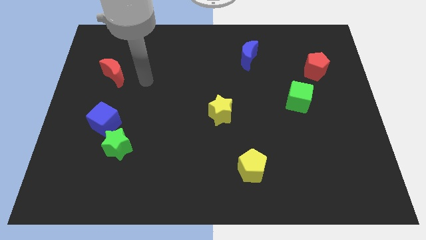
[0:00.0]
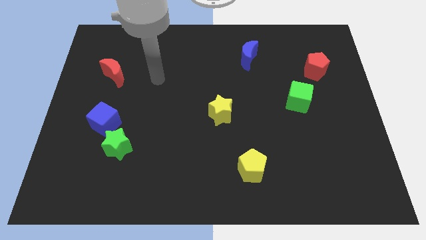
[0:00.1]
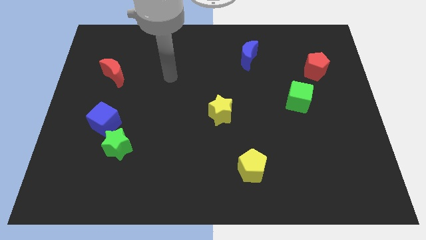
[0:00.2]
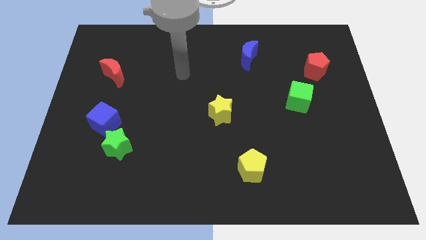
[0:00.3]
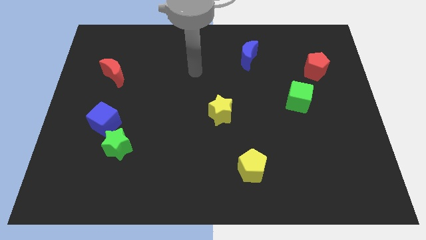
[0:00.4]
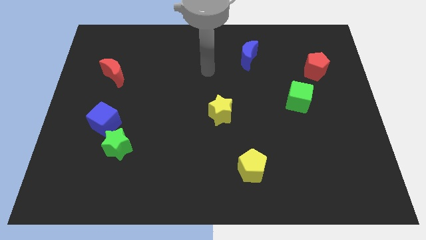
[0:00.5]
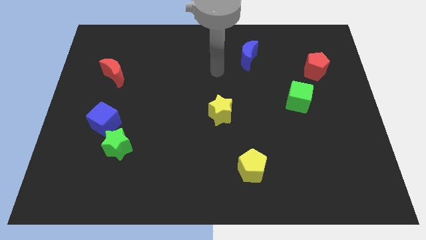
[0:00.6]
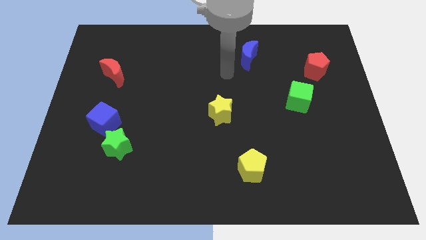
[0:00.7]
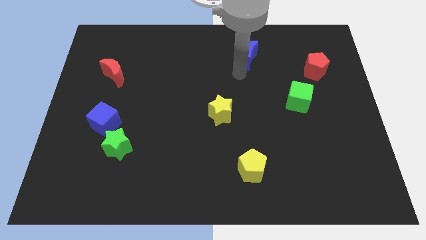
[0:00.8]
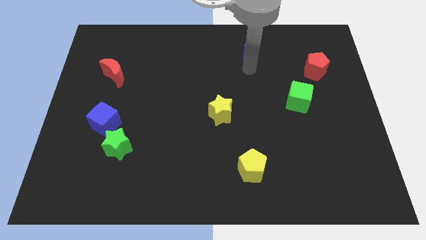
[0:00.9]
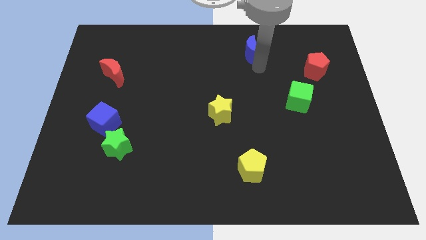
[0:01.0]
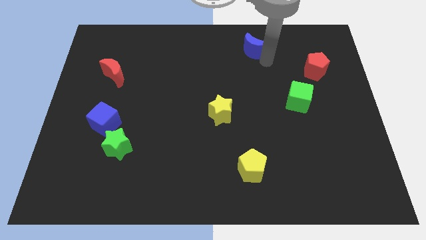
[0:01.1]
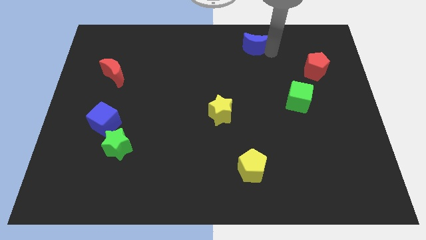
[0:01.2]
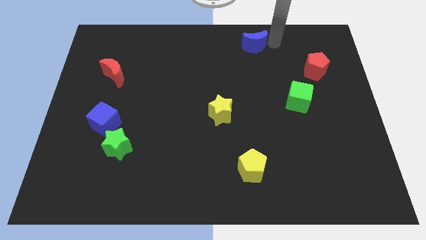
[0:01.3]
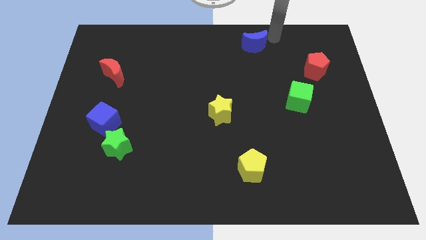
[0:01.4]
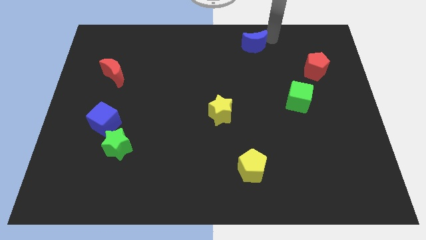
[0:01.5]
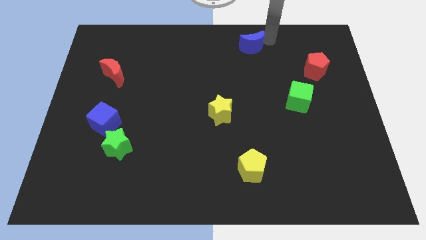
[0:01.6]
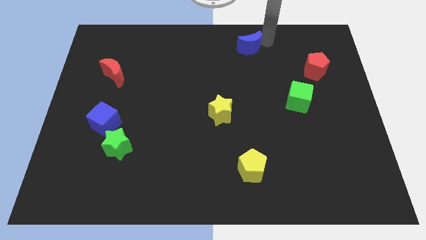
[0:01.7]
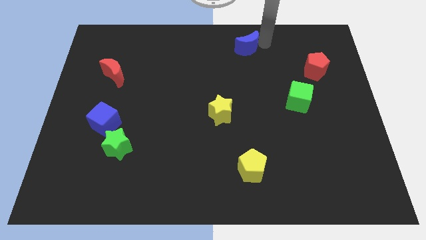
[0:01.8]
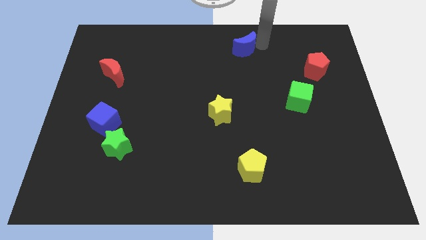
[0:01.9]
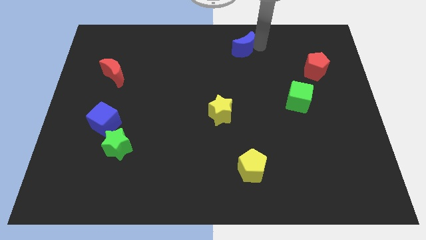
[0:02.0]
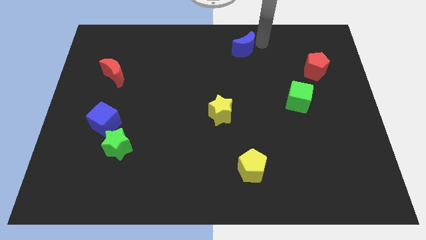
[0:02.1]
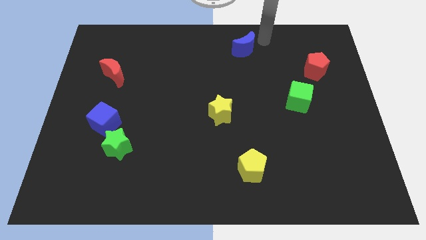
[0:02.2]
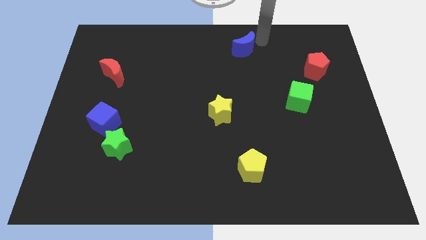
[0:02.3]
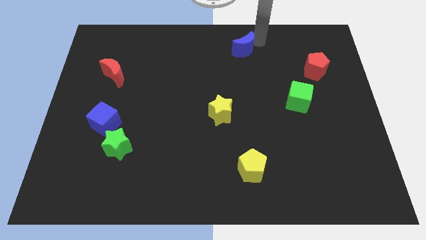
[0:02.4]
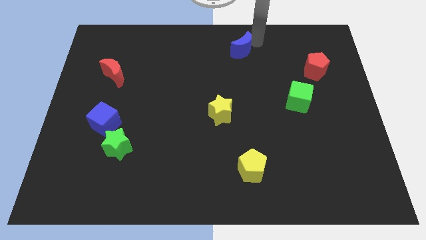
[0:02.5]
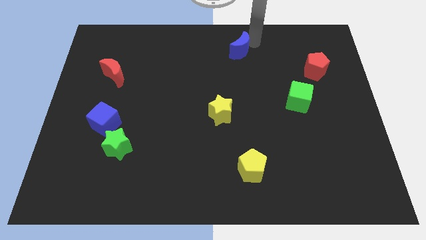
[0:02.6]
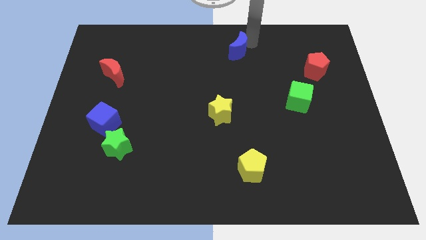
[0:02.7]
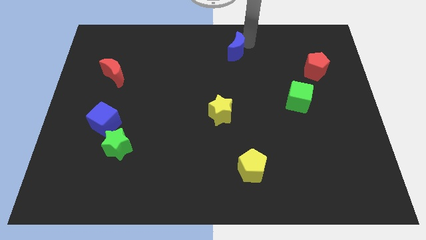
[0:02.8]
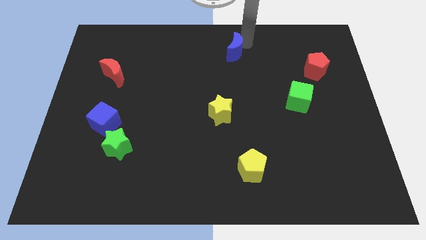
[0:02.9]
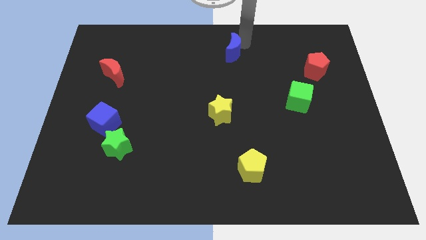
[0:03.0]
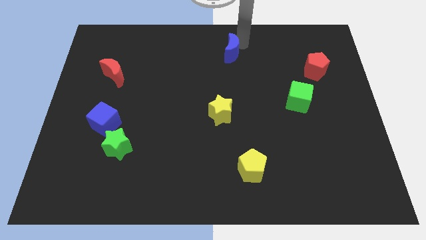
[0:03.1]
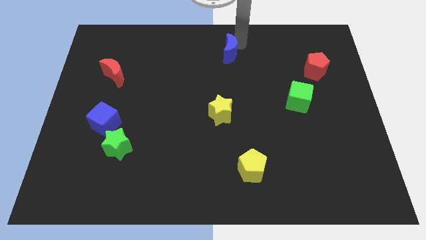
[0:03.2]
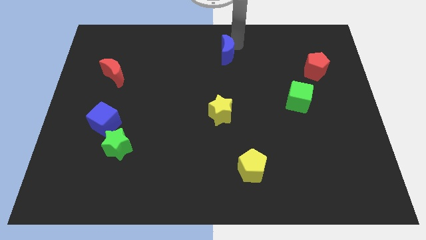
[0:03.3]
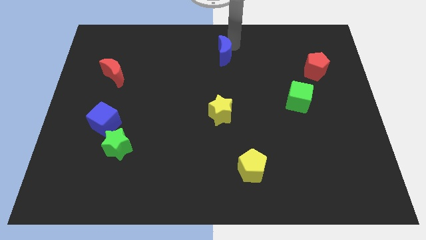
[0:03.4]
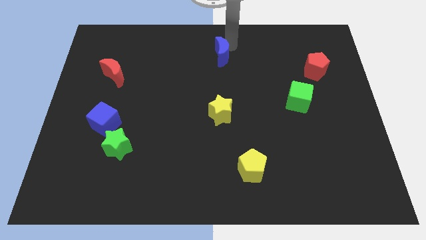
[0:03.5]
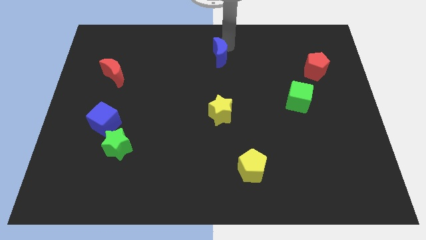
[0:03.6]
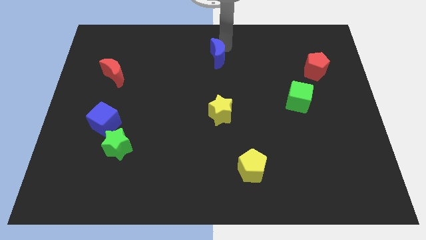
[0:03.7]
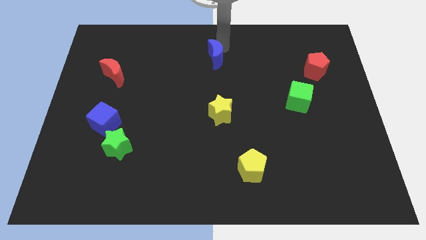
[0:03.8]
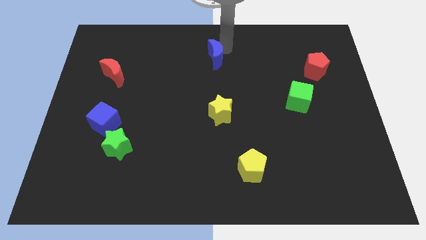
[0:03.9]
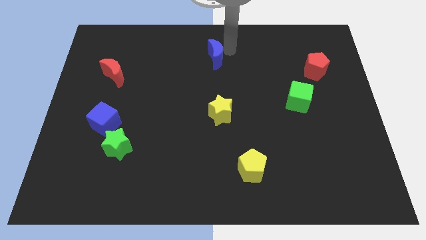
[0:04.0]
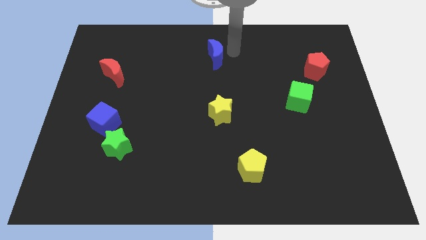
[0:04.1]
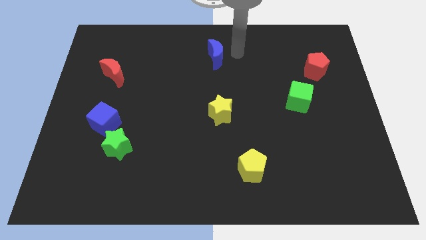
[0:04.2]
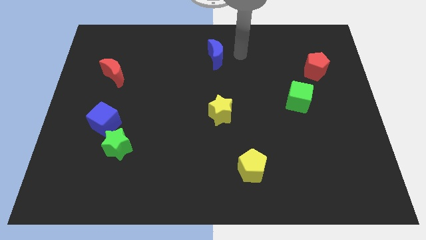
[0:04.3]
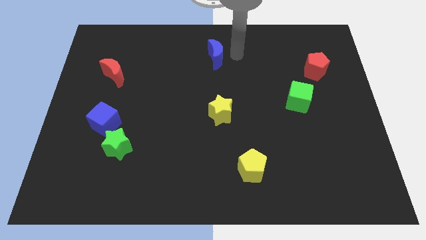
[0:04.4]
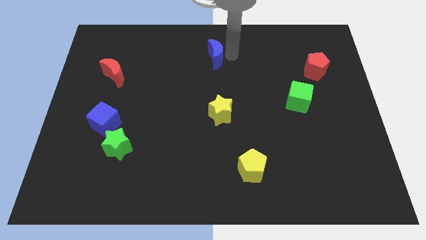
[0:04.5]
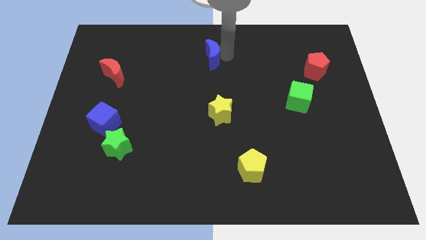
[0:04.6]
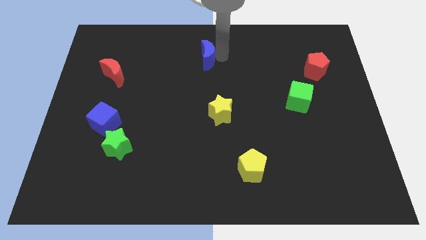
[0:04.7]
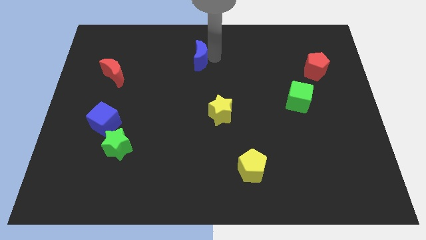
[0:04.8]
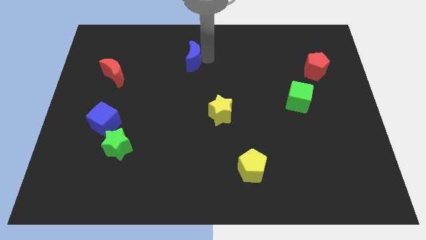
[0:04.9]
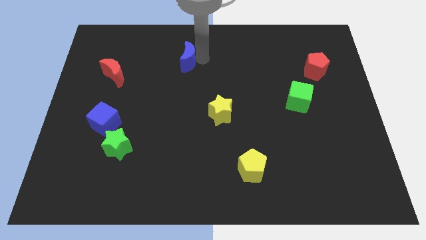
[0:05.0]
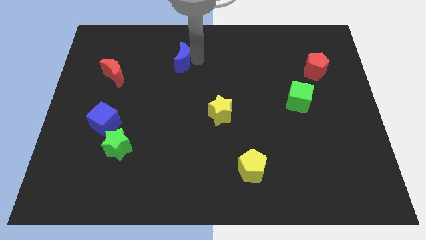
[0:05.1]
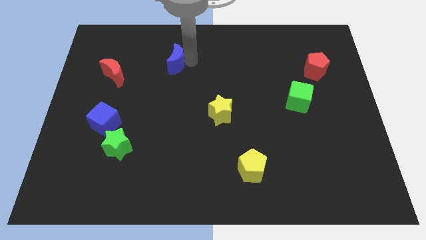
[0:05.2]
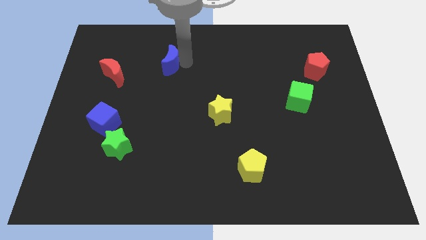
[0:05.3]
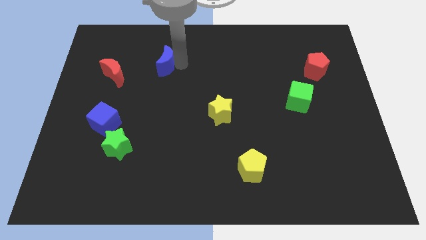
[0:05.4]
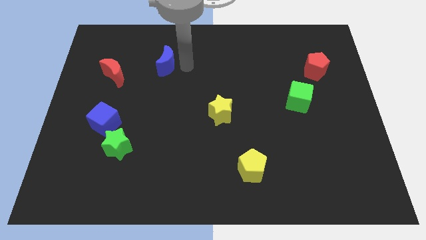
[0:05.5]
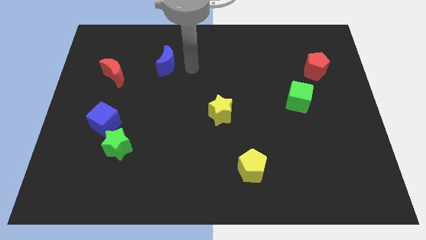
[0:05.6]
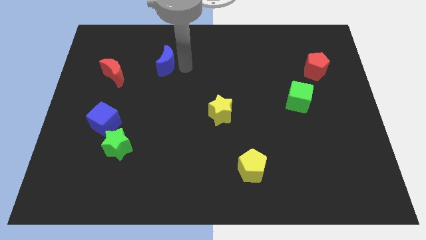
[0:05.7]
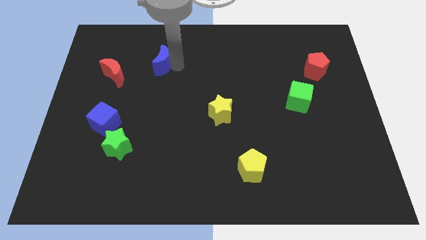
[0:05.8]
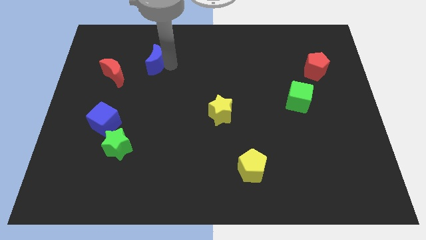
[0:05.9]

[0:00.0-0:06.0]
push the blue moon diagonally up and to the right of the red moon
